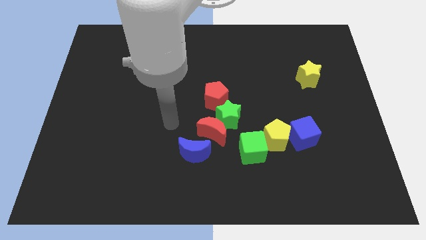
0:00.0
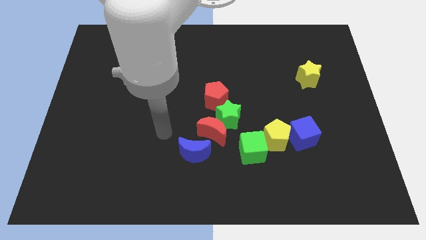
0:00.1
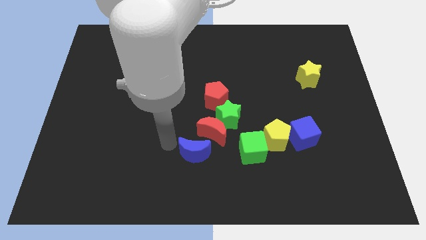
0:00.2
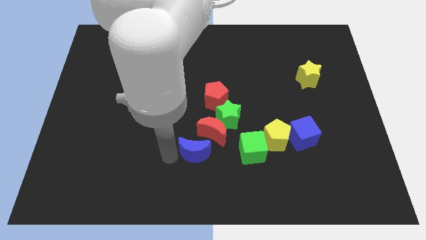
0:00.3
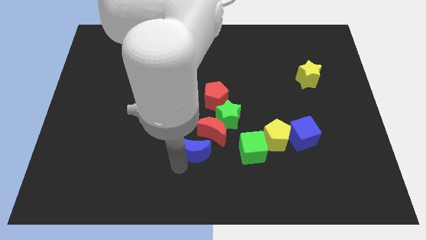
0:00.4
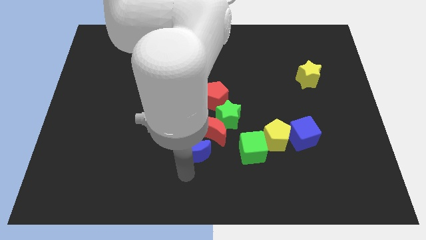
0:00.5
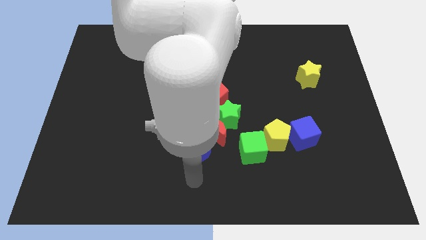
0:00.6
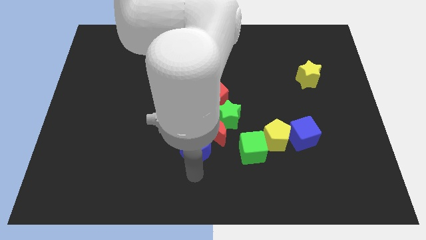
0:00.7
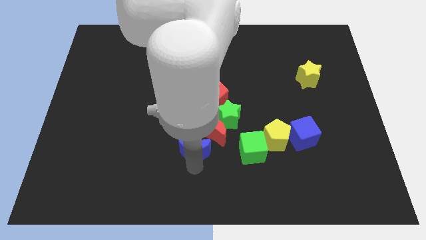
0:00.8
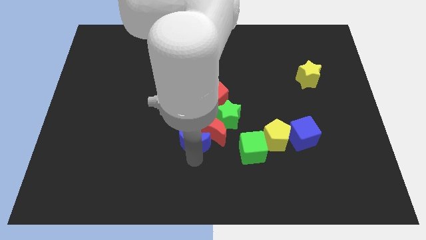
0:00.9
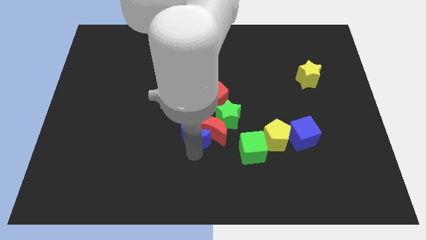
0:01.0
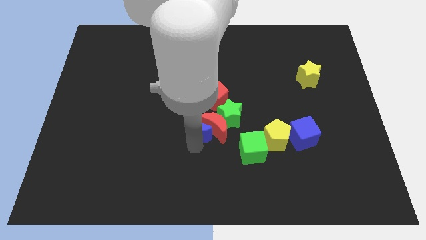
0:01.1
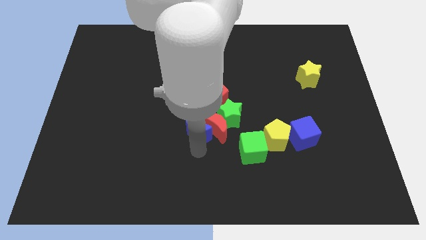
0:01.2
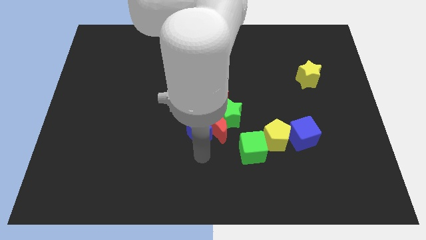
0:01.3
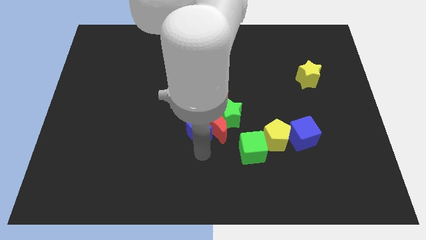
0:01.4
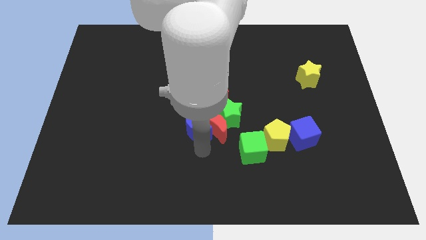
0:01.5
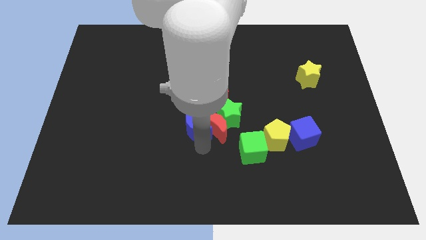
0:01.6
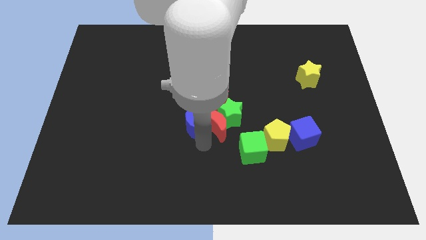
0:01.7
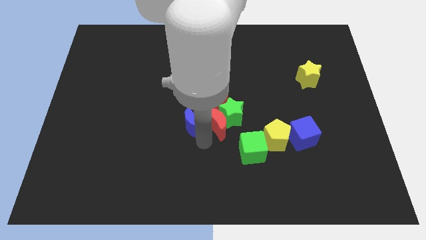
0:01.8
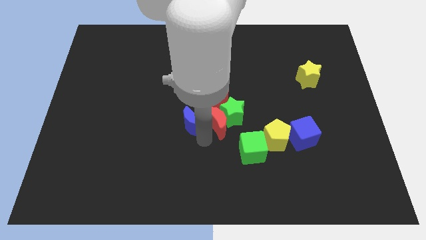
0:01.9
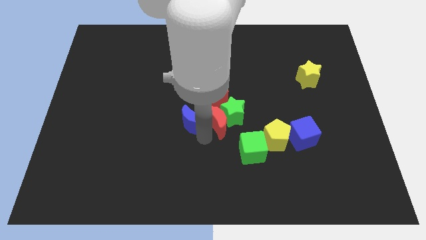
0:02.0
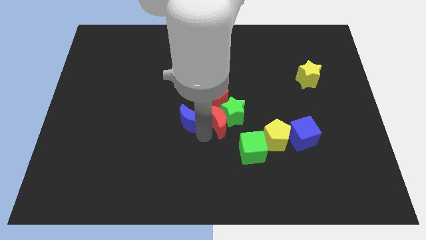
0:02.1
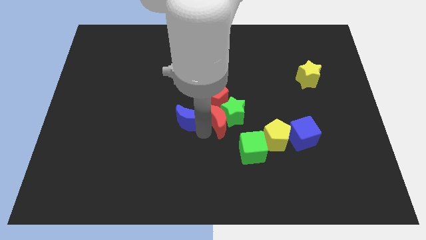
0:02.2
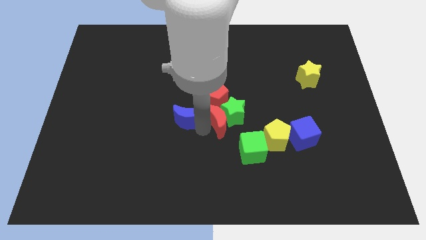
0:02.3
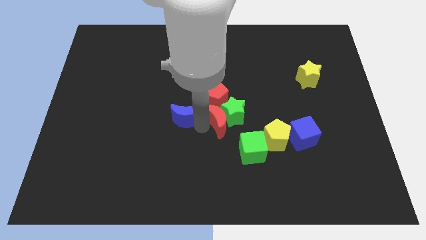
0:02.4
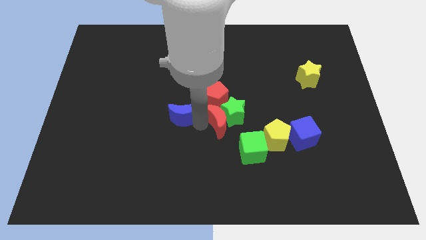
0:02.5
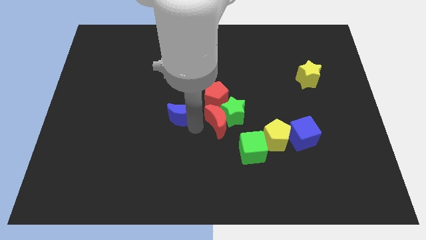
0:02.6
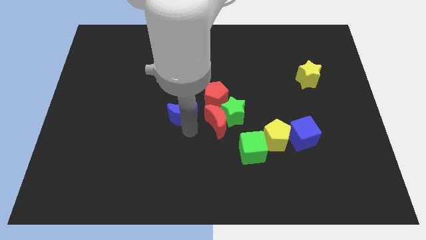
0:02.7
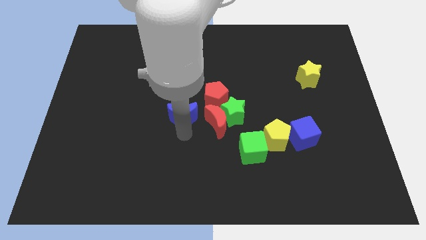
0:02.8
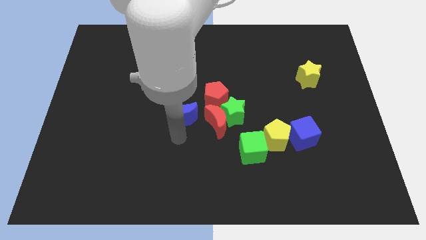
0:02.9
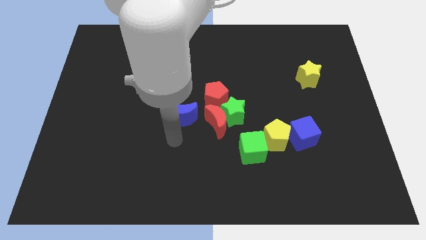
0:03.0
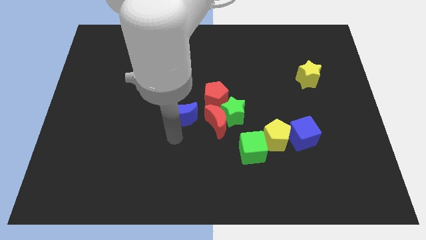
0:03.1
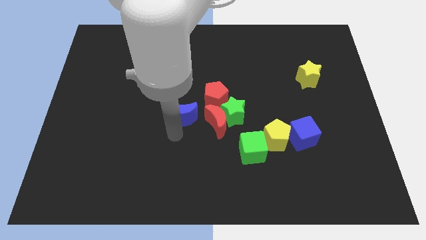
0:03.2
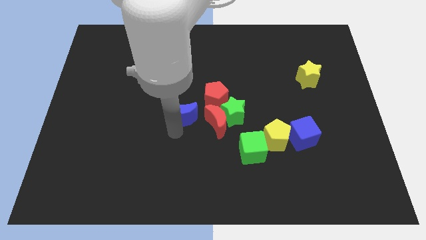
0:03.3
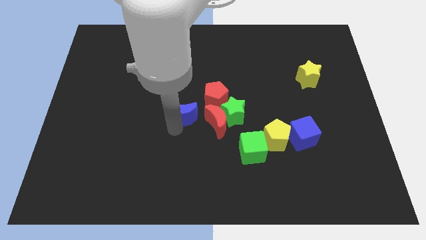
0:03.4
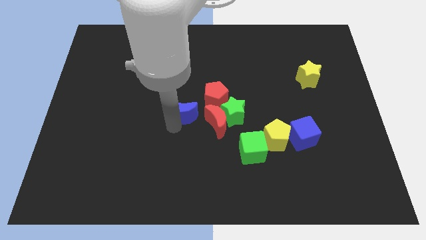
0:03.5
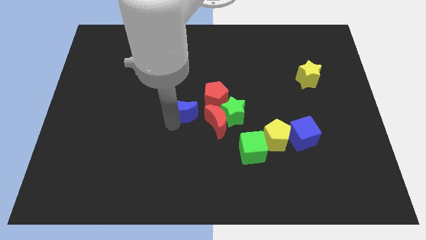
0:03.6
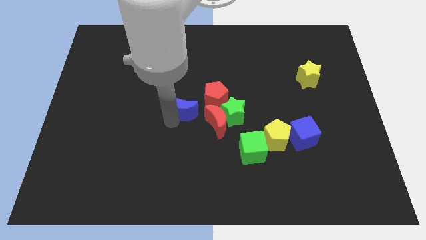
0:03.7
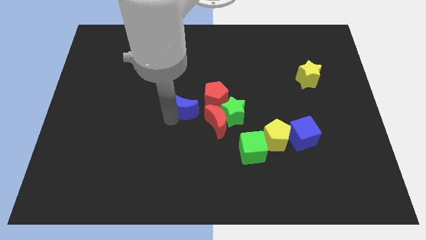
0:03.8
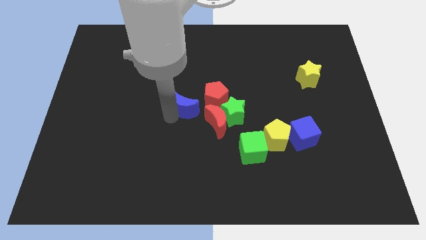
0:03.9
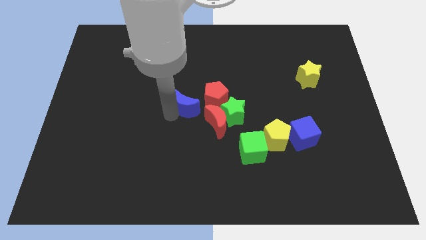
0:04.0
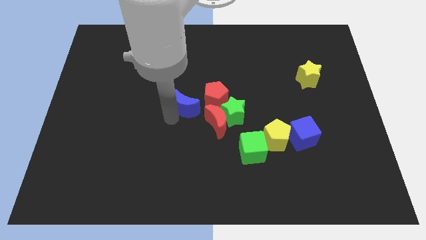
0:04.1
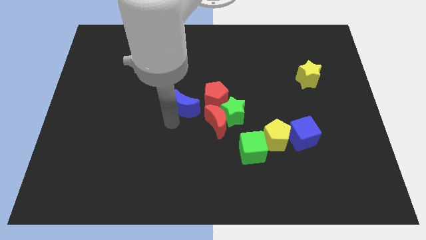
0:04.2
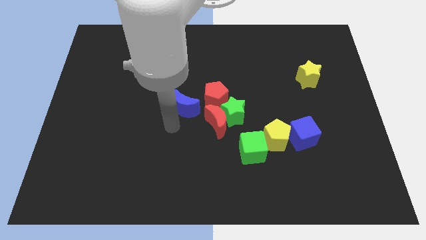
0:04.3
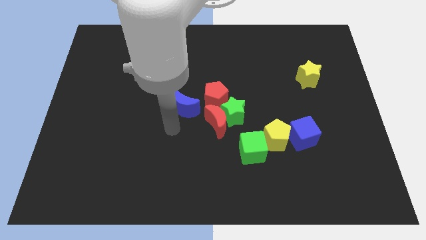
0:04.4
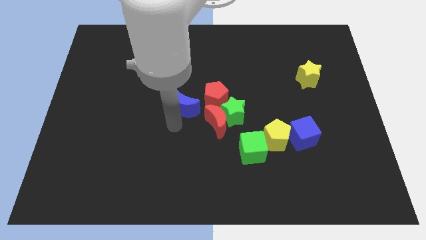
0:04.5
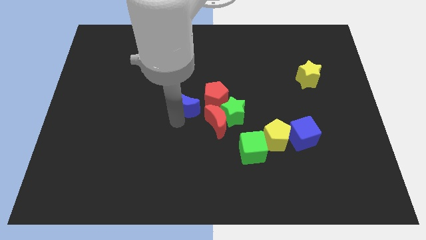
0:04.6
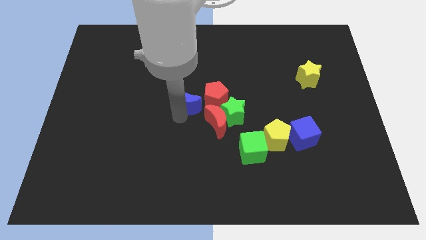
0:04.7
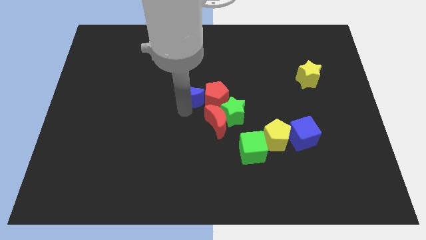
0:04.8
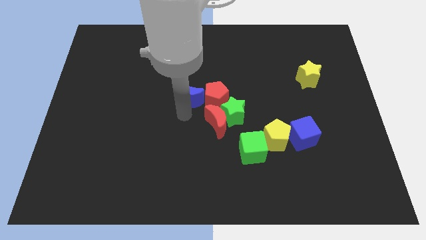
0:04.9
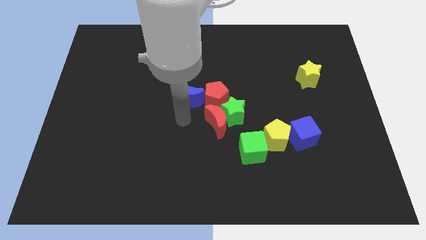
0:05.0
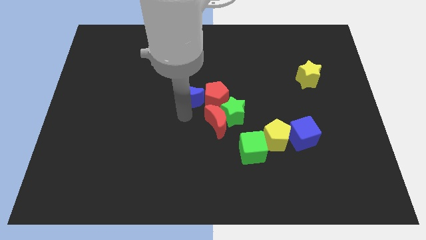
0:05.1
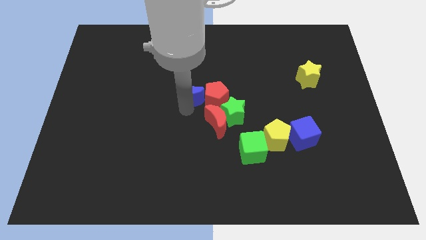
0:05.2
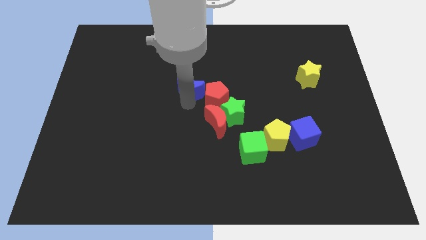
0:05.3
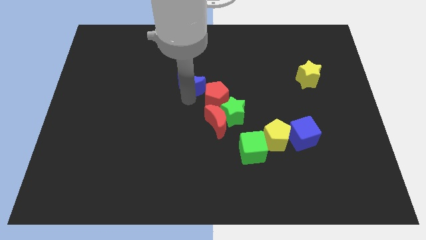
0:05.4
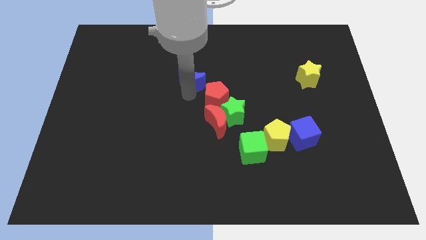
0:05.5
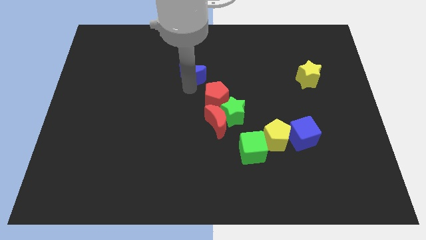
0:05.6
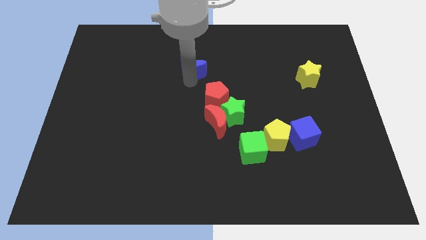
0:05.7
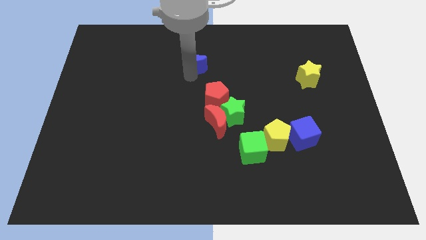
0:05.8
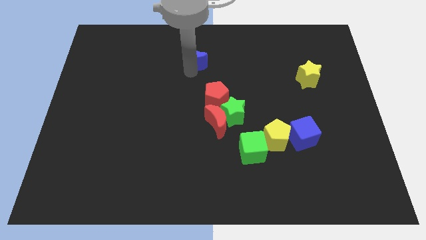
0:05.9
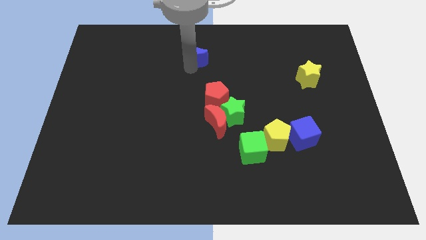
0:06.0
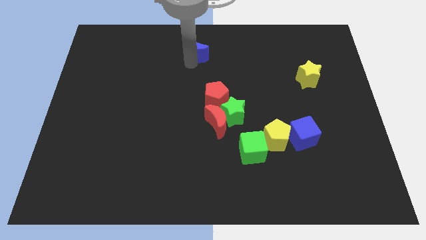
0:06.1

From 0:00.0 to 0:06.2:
slide the blue moon to the towards your base
